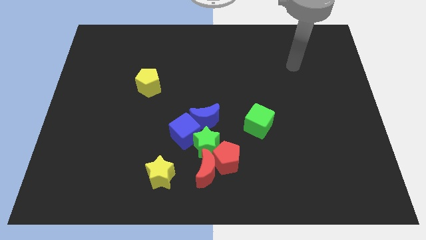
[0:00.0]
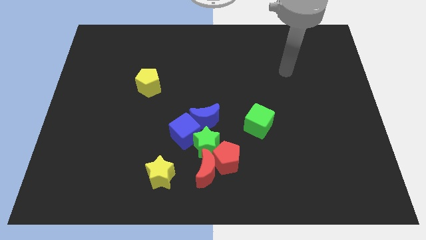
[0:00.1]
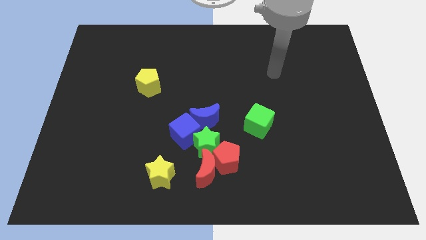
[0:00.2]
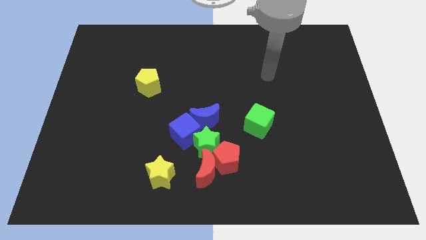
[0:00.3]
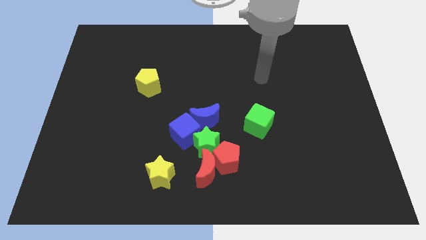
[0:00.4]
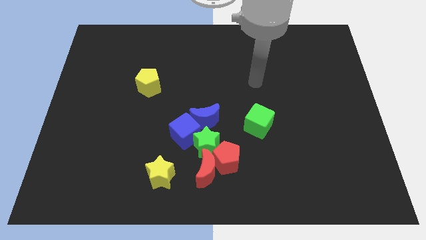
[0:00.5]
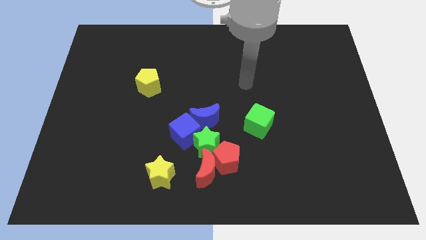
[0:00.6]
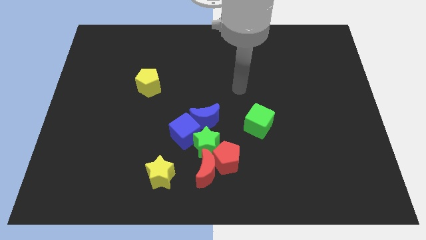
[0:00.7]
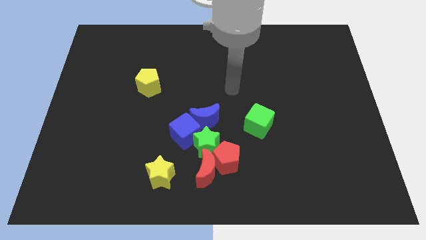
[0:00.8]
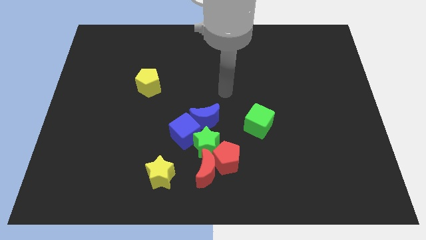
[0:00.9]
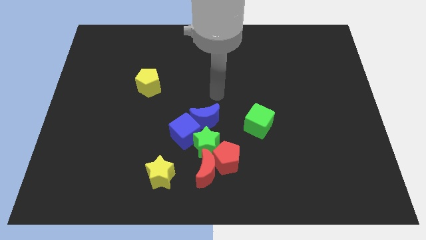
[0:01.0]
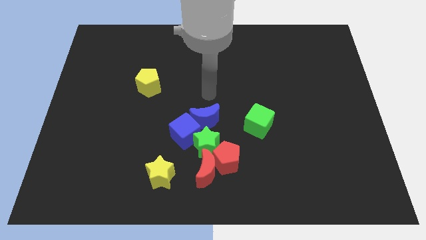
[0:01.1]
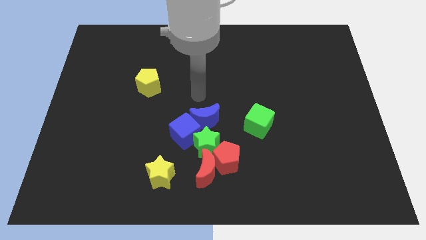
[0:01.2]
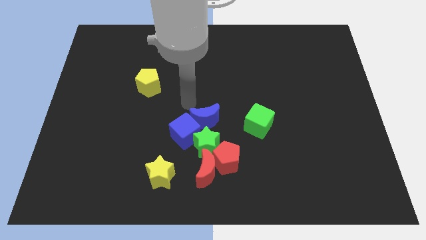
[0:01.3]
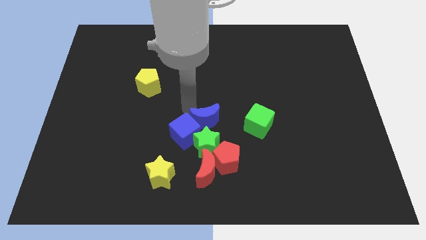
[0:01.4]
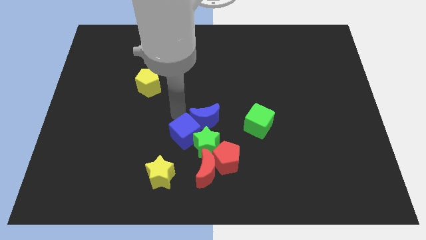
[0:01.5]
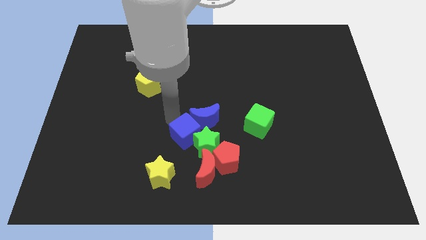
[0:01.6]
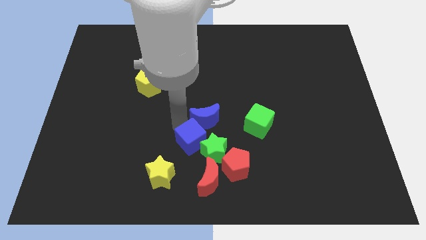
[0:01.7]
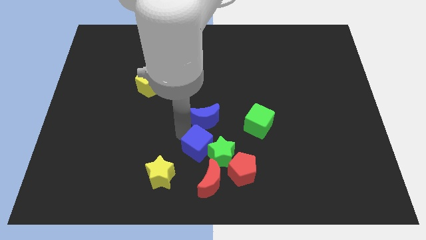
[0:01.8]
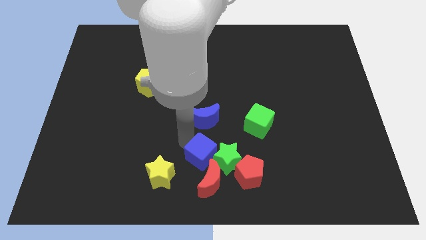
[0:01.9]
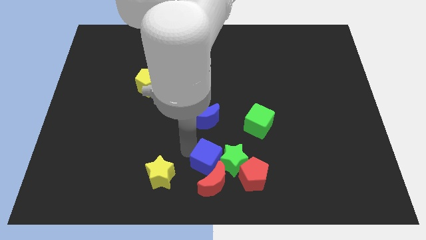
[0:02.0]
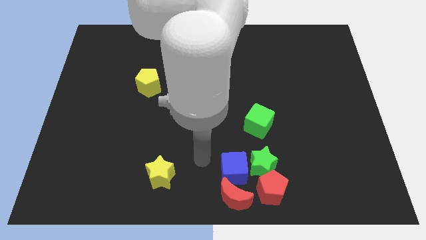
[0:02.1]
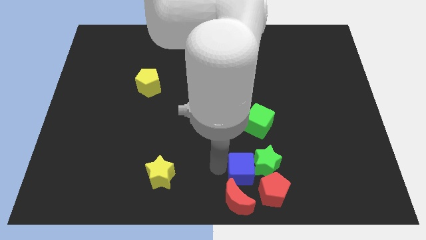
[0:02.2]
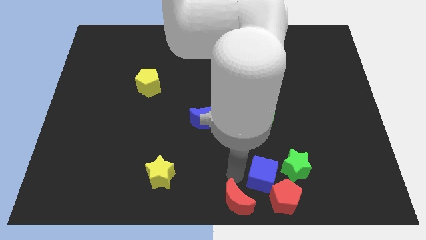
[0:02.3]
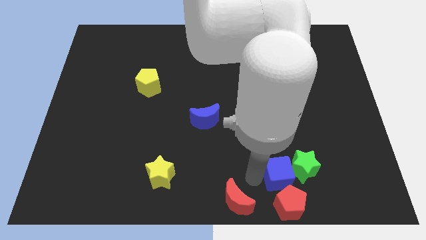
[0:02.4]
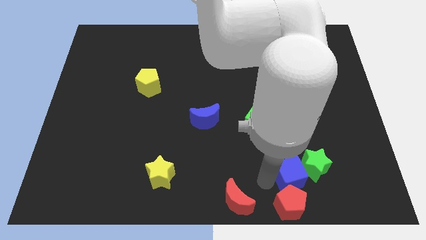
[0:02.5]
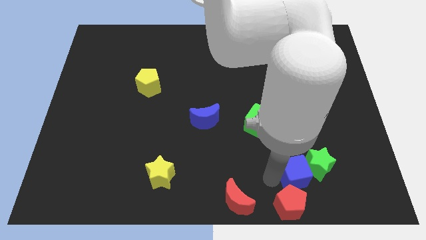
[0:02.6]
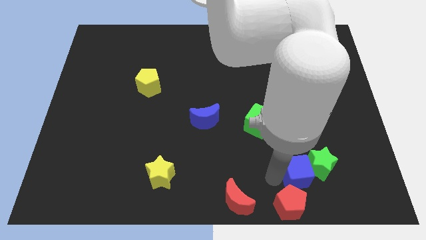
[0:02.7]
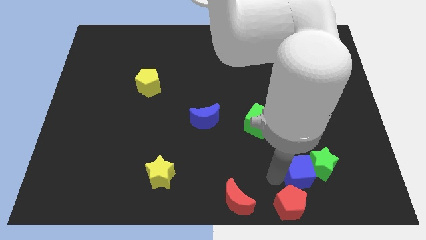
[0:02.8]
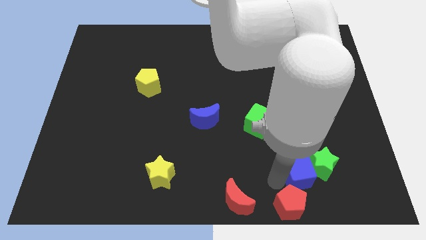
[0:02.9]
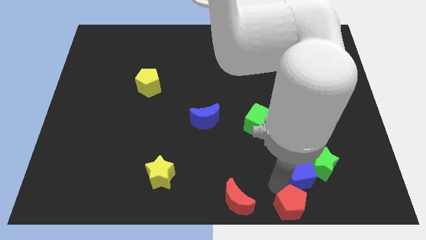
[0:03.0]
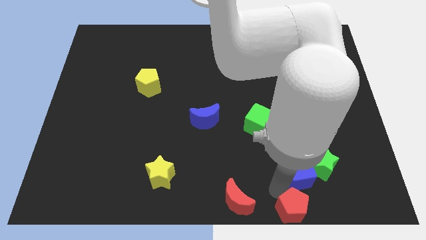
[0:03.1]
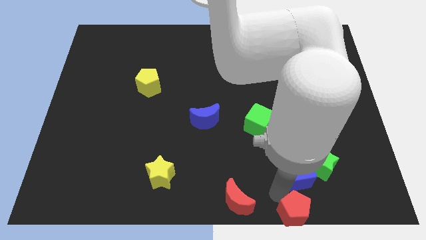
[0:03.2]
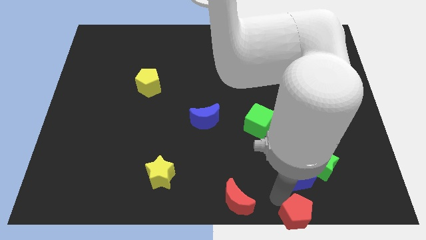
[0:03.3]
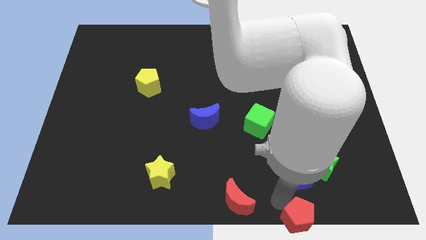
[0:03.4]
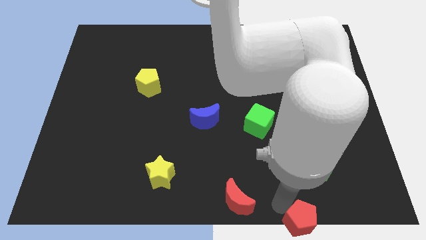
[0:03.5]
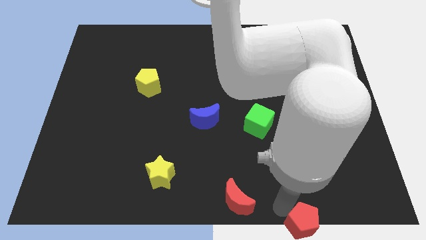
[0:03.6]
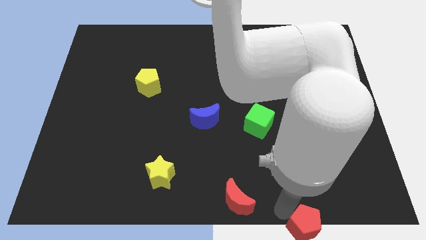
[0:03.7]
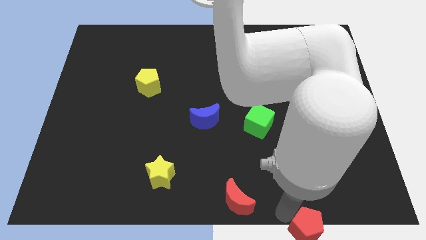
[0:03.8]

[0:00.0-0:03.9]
separate the red pentagon from the red moon and green star

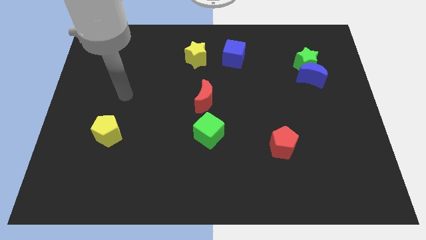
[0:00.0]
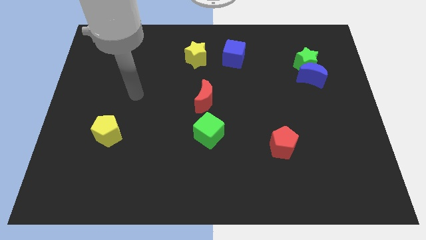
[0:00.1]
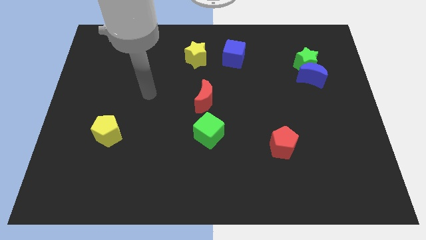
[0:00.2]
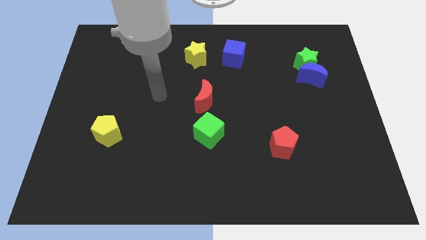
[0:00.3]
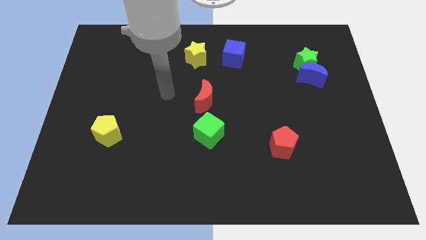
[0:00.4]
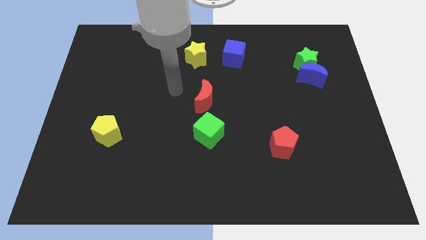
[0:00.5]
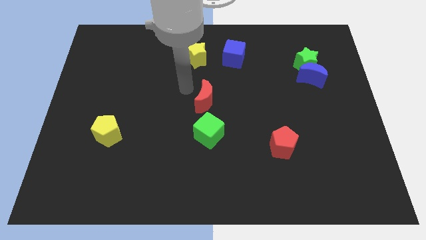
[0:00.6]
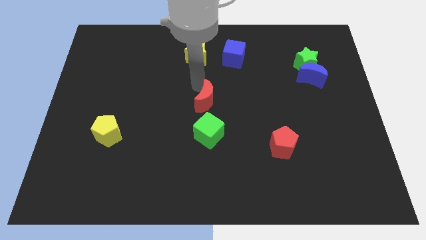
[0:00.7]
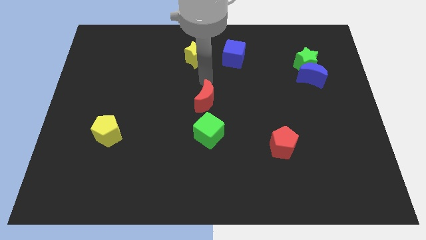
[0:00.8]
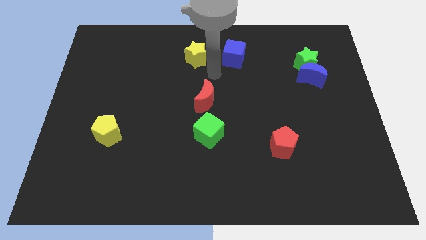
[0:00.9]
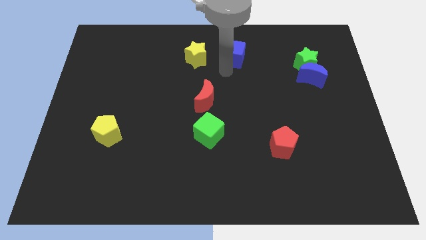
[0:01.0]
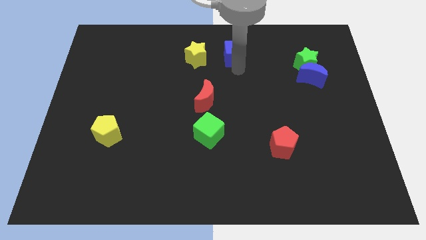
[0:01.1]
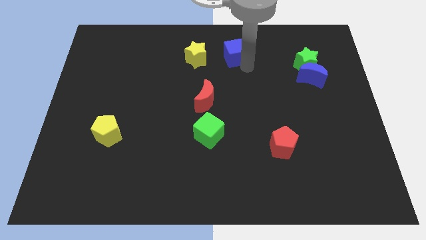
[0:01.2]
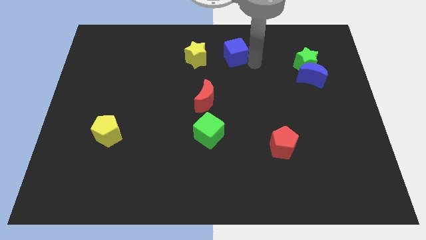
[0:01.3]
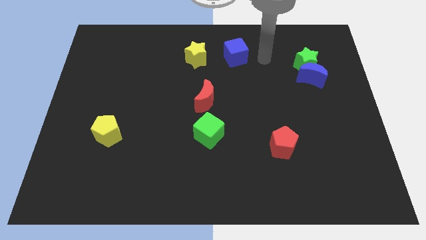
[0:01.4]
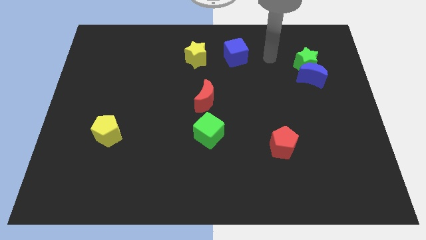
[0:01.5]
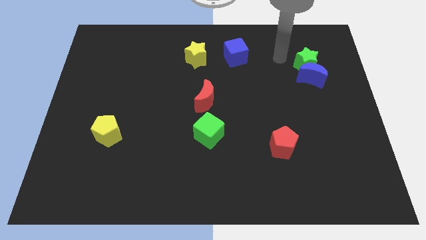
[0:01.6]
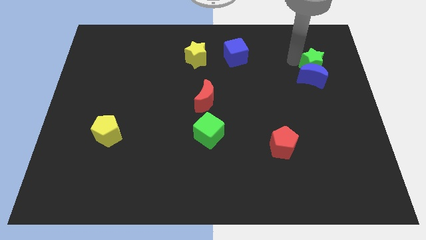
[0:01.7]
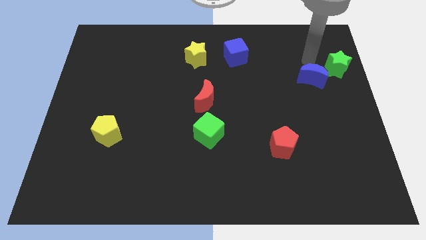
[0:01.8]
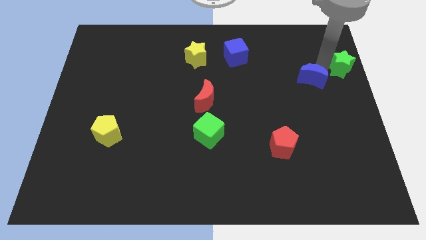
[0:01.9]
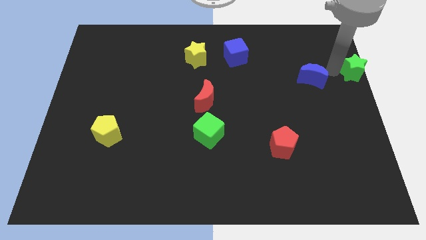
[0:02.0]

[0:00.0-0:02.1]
pull the blue moon apart from the green star

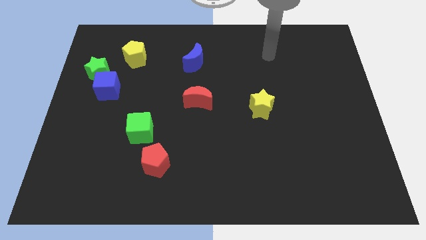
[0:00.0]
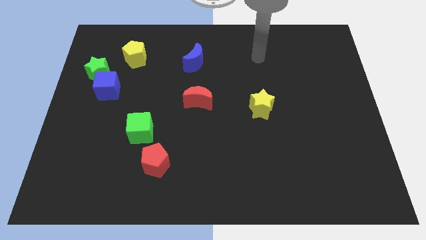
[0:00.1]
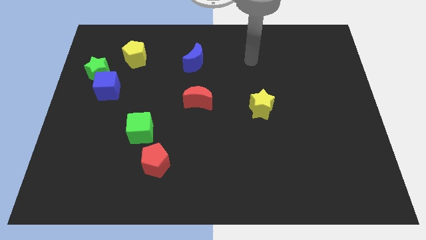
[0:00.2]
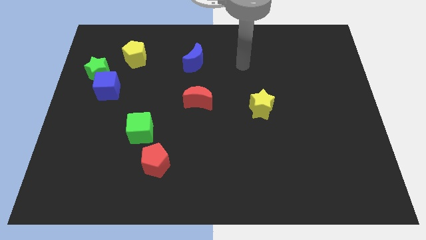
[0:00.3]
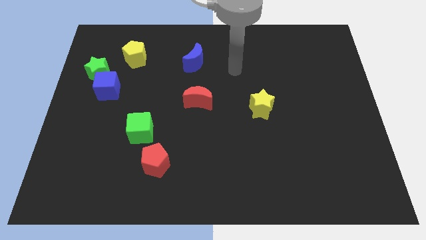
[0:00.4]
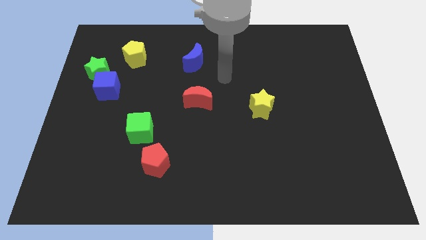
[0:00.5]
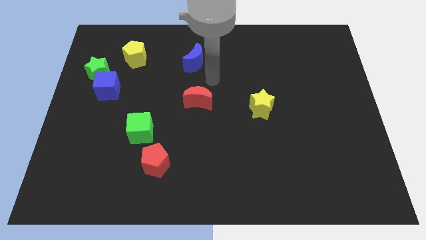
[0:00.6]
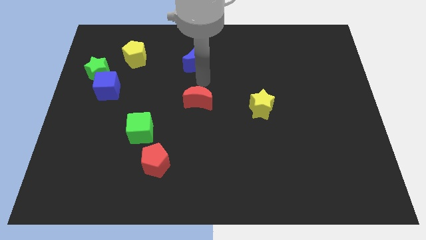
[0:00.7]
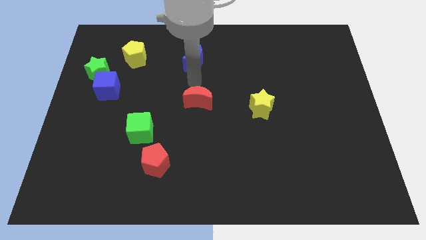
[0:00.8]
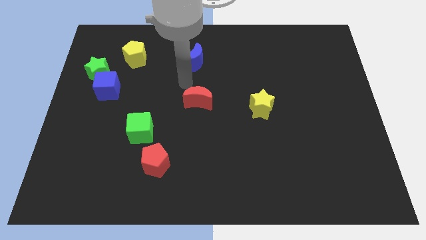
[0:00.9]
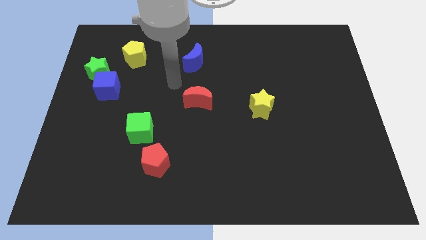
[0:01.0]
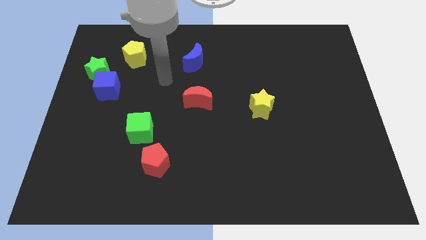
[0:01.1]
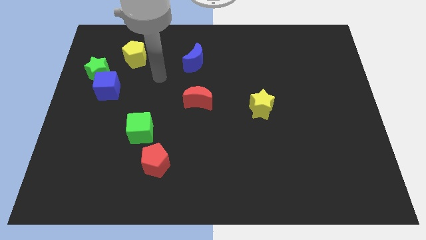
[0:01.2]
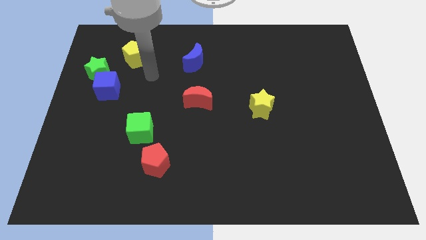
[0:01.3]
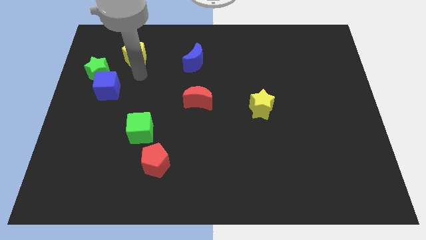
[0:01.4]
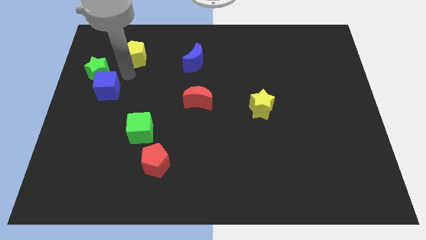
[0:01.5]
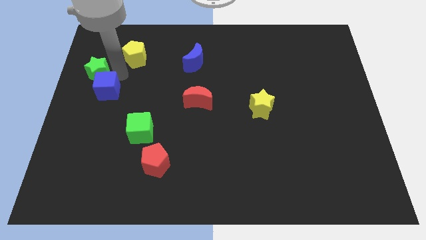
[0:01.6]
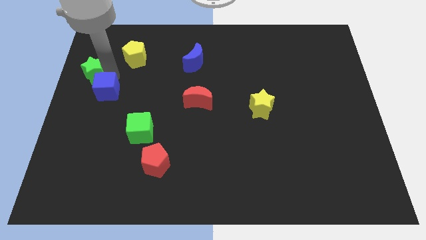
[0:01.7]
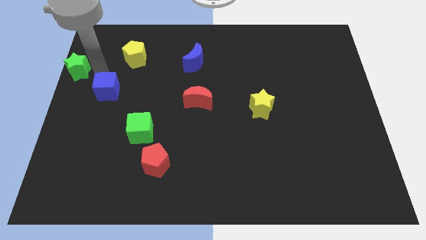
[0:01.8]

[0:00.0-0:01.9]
pull the blue cube apart from the green star

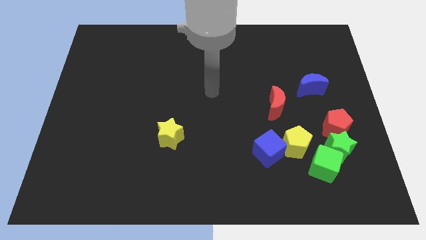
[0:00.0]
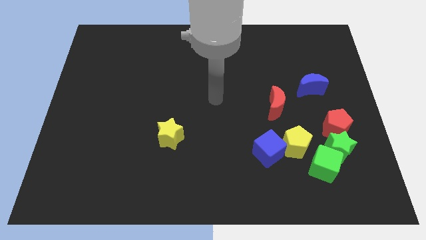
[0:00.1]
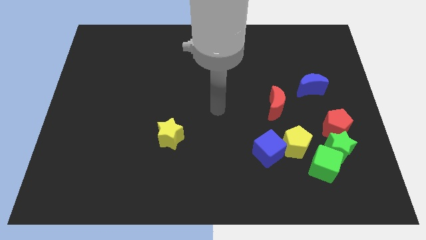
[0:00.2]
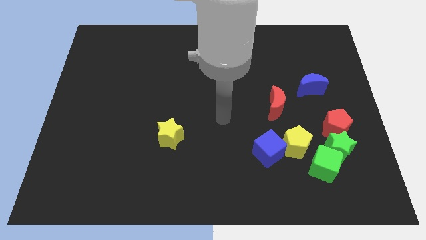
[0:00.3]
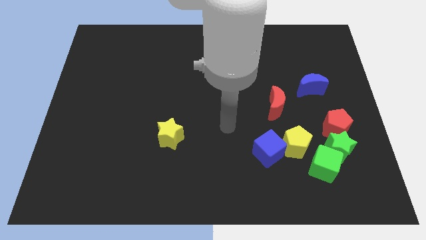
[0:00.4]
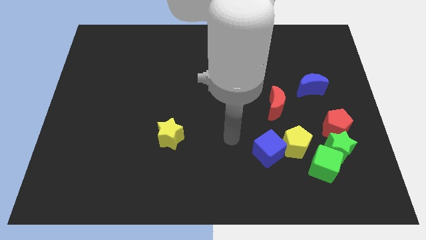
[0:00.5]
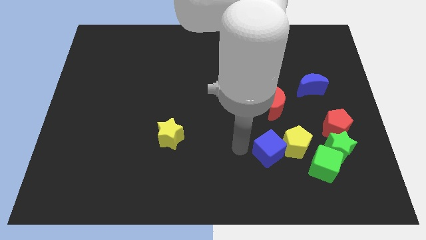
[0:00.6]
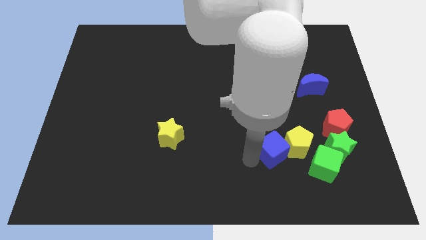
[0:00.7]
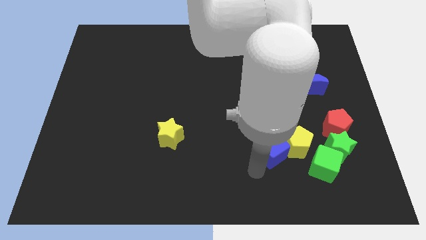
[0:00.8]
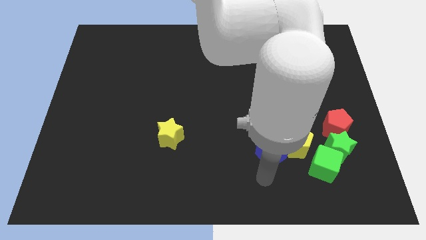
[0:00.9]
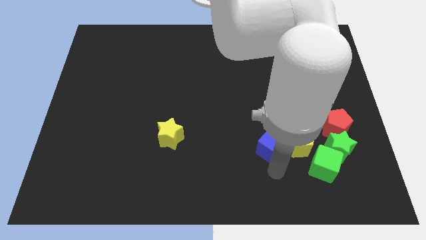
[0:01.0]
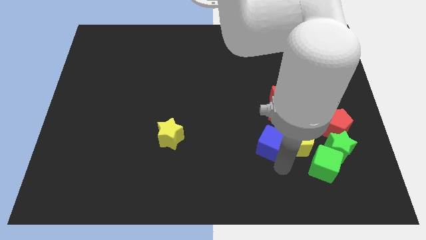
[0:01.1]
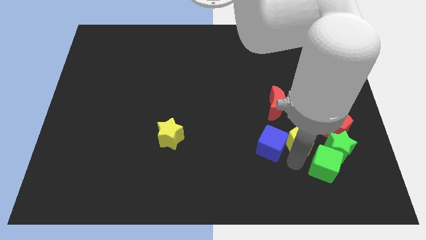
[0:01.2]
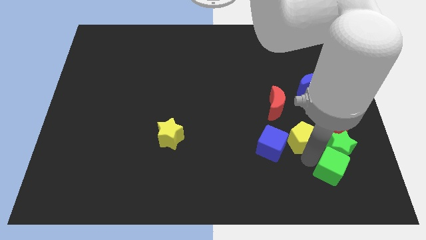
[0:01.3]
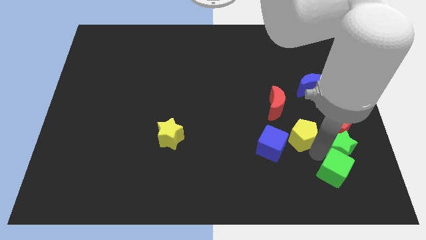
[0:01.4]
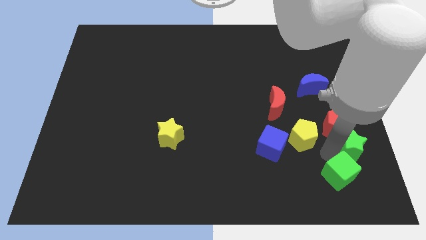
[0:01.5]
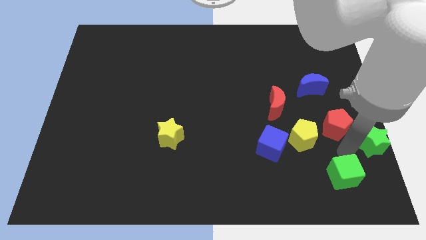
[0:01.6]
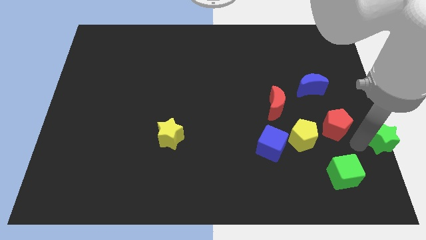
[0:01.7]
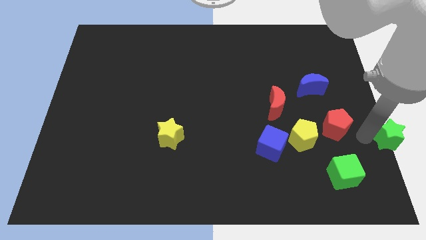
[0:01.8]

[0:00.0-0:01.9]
pull the red pentagon apart from the green star
